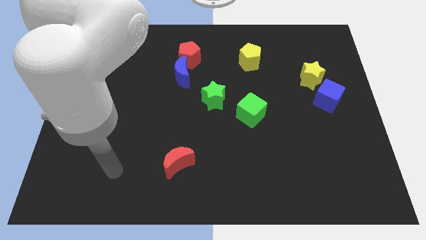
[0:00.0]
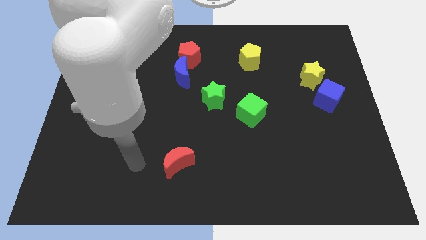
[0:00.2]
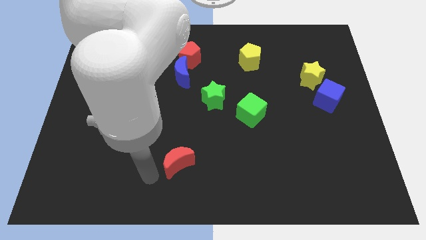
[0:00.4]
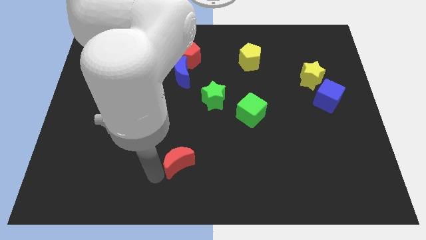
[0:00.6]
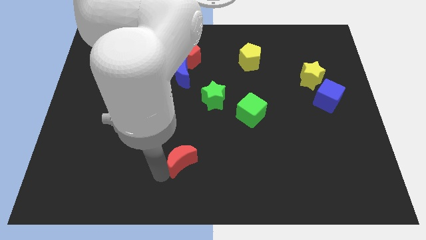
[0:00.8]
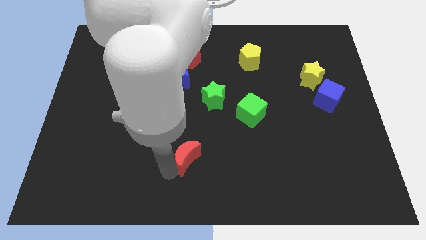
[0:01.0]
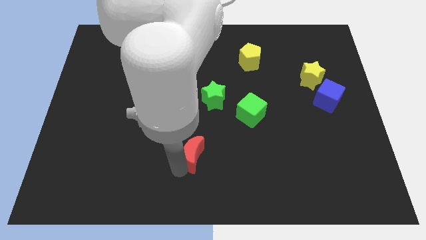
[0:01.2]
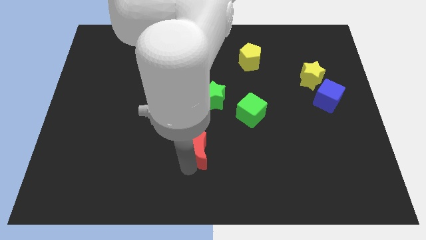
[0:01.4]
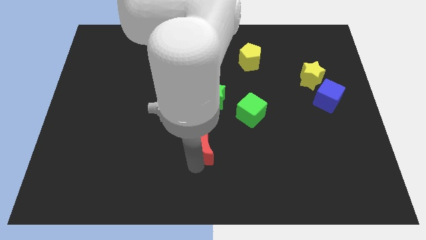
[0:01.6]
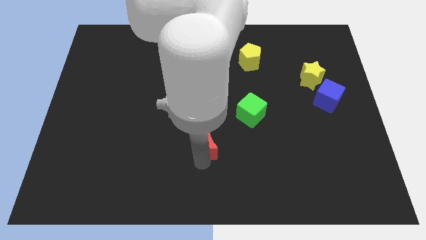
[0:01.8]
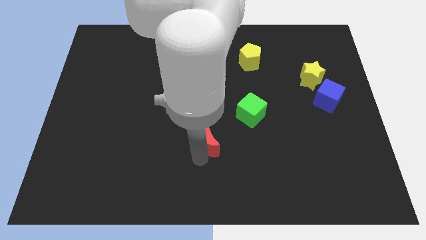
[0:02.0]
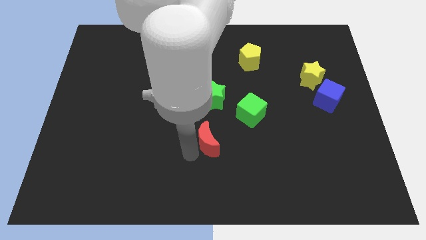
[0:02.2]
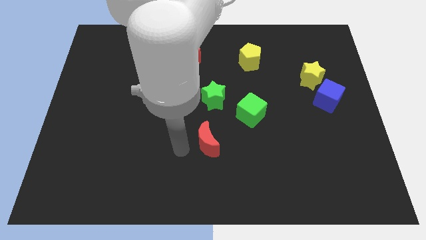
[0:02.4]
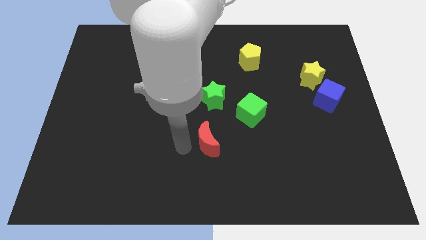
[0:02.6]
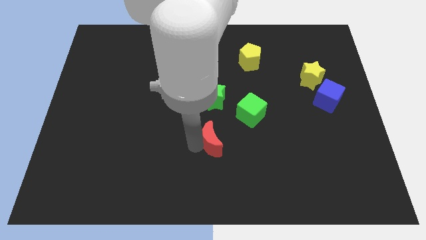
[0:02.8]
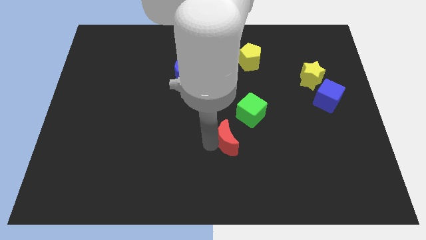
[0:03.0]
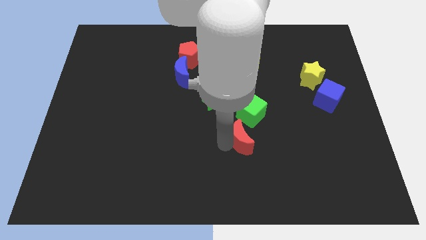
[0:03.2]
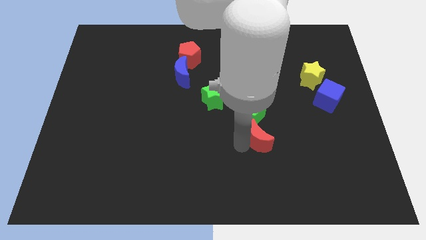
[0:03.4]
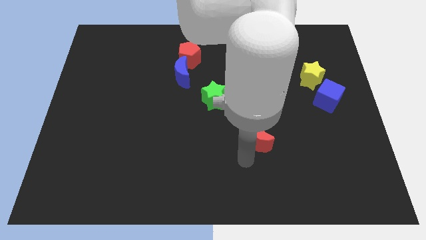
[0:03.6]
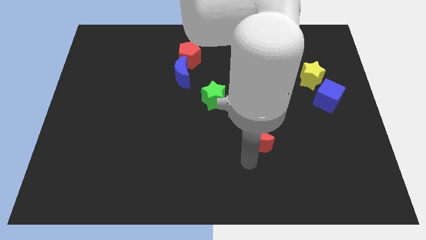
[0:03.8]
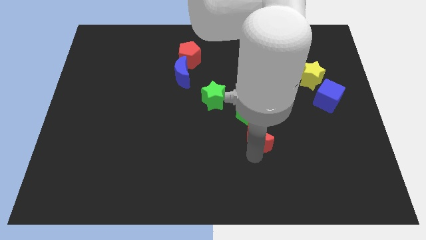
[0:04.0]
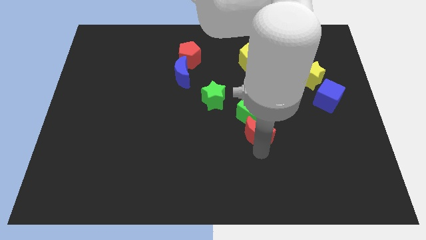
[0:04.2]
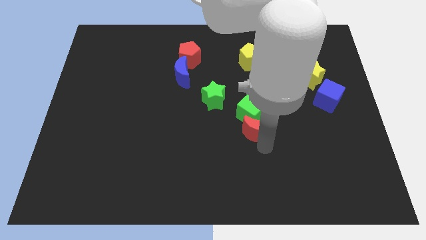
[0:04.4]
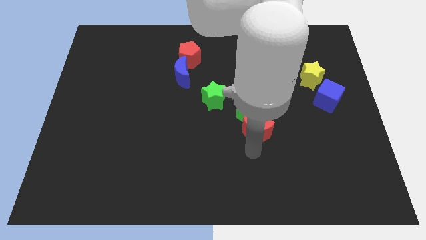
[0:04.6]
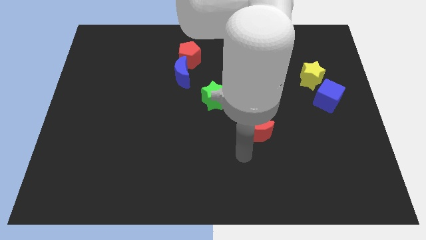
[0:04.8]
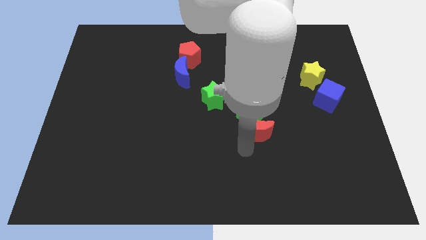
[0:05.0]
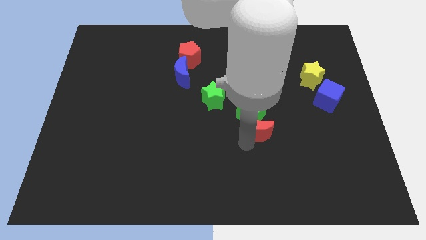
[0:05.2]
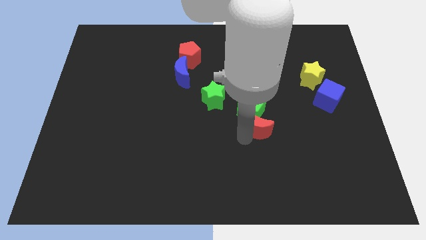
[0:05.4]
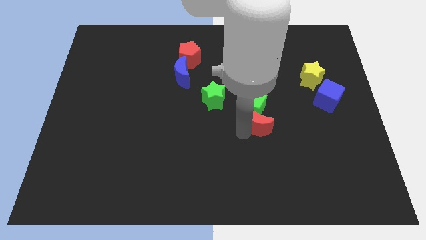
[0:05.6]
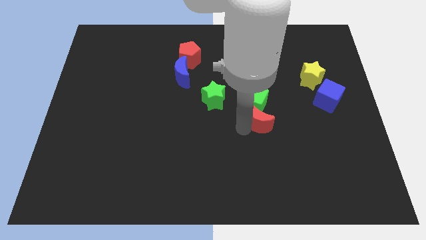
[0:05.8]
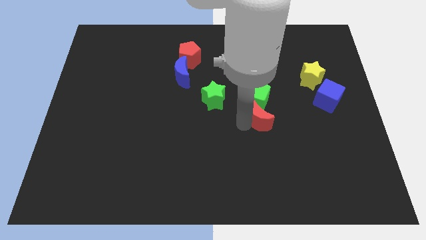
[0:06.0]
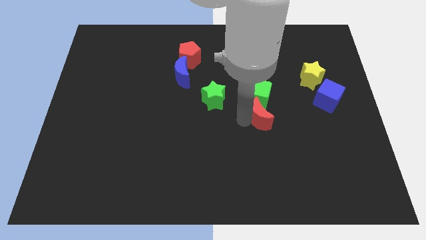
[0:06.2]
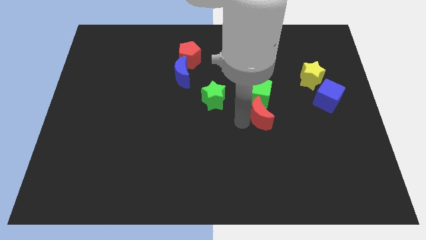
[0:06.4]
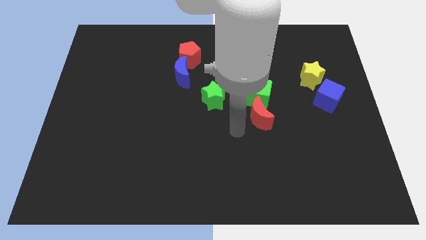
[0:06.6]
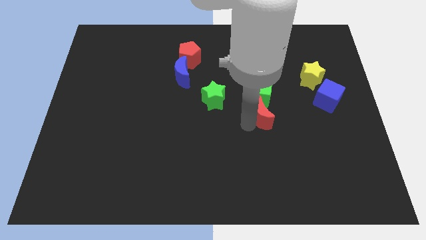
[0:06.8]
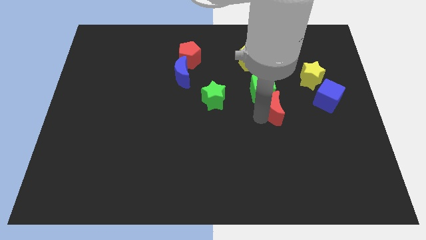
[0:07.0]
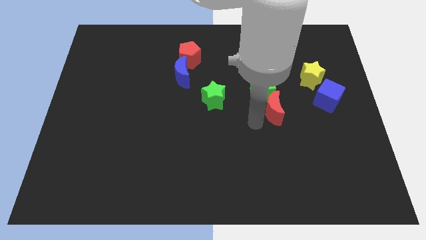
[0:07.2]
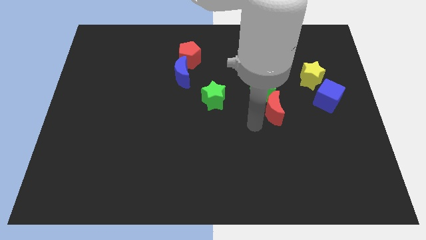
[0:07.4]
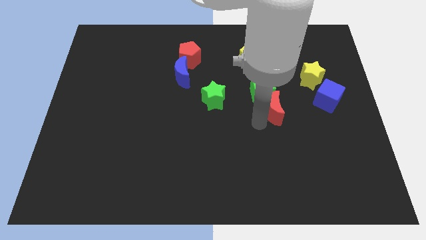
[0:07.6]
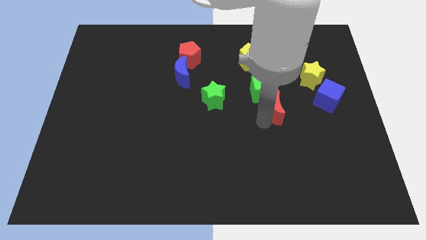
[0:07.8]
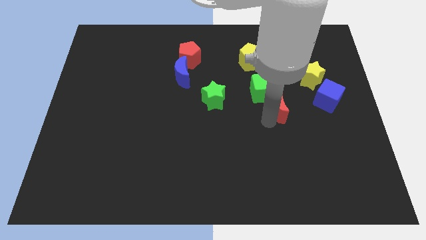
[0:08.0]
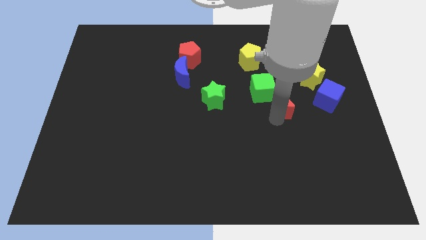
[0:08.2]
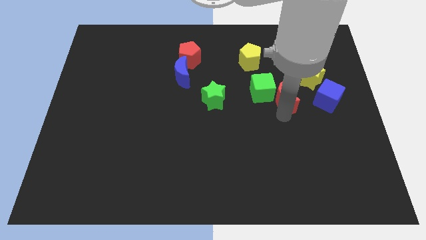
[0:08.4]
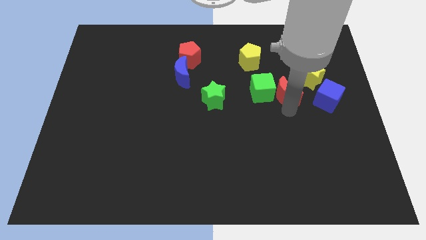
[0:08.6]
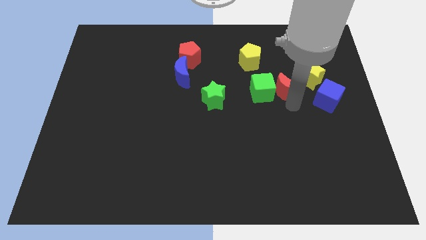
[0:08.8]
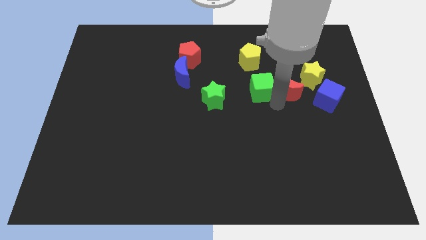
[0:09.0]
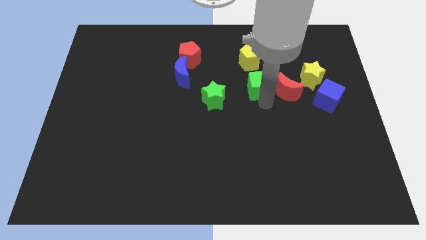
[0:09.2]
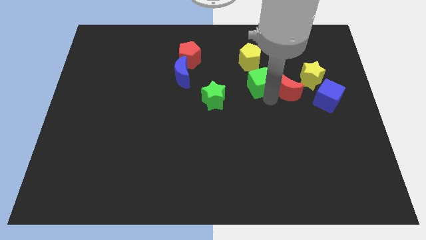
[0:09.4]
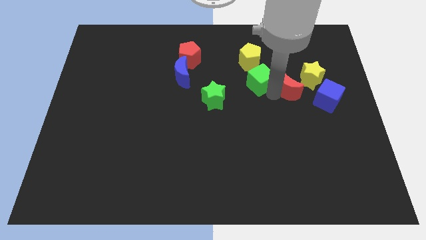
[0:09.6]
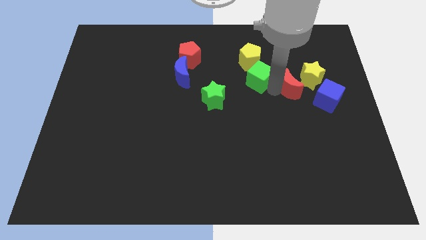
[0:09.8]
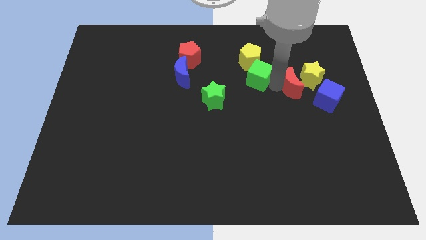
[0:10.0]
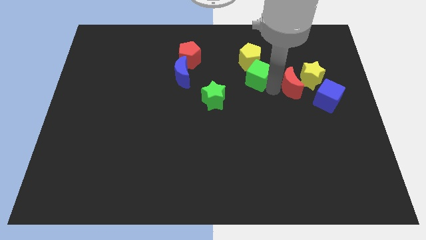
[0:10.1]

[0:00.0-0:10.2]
push the red moon close to the yellow star

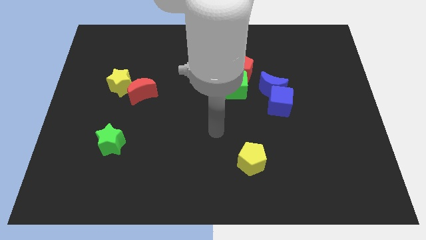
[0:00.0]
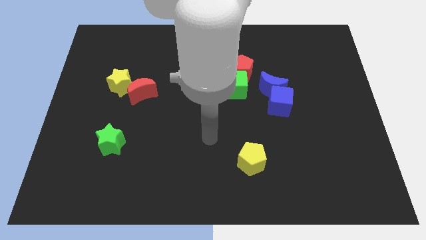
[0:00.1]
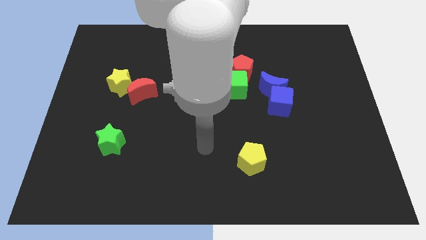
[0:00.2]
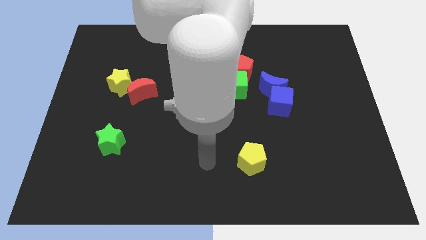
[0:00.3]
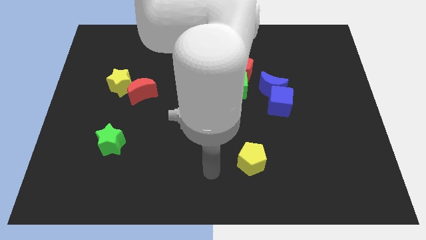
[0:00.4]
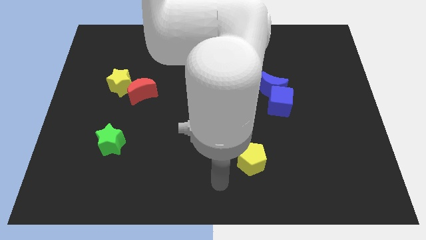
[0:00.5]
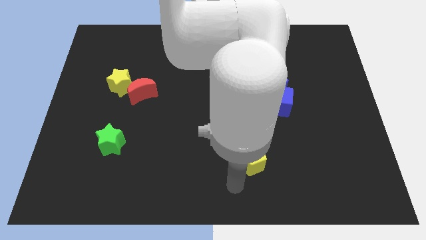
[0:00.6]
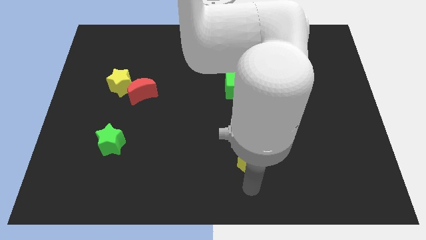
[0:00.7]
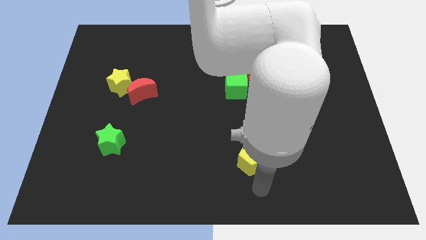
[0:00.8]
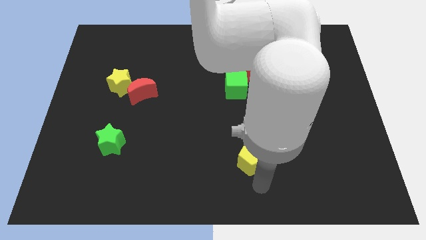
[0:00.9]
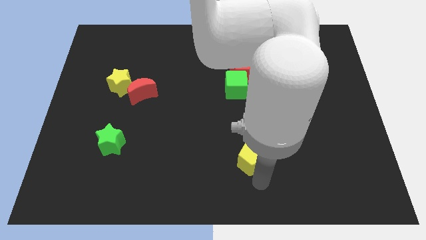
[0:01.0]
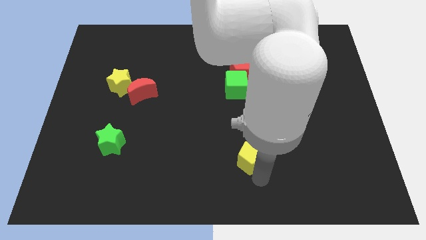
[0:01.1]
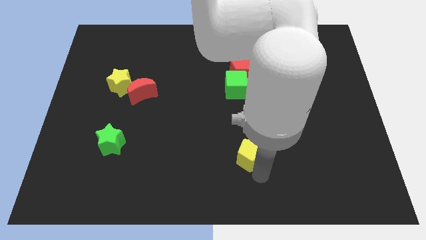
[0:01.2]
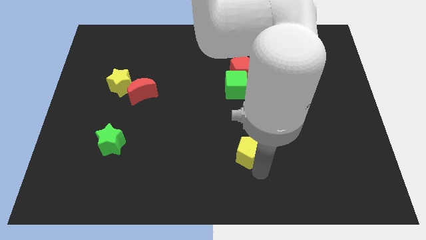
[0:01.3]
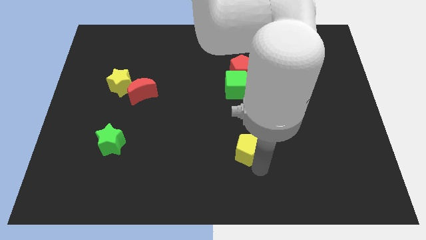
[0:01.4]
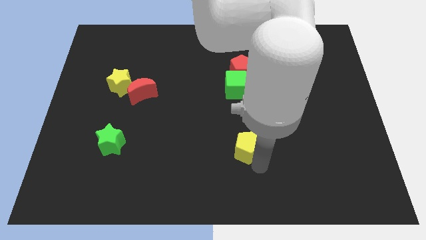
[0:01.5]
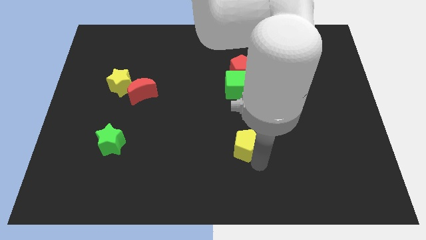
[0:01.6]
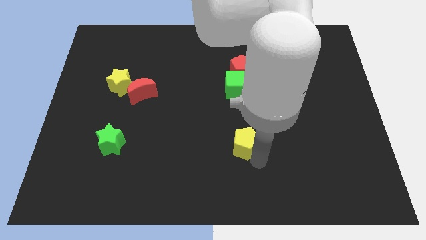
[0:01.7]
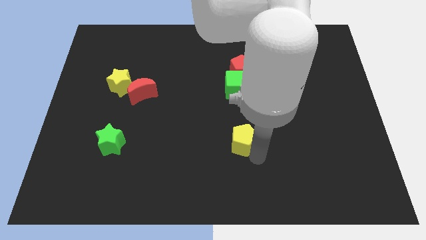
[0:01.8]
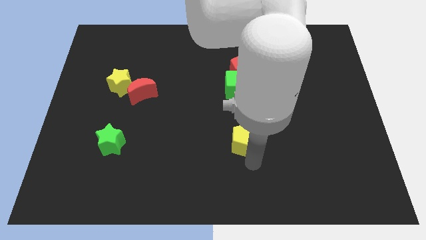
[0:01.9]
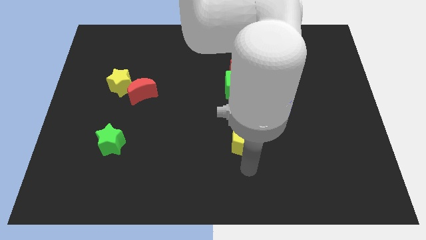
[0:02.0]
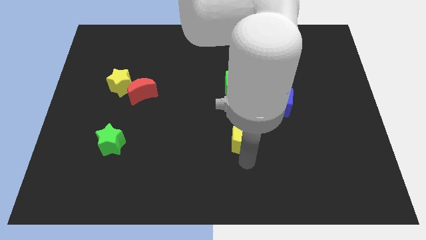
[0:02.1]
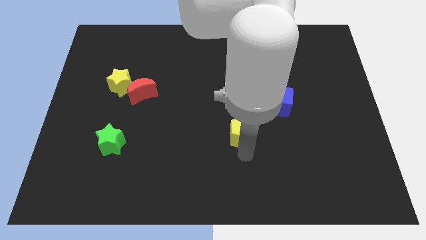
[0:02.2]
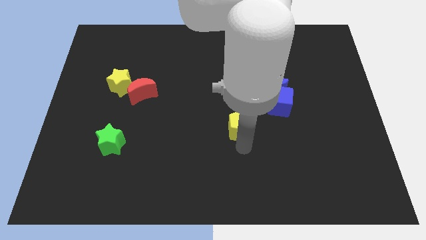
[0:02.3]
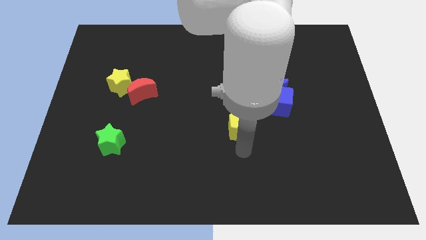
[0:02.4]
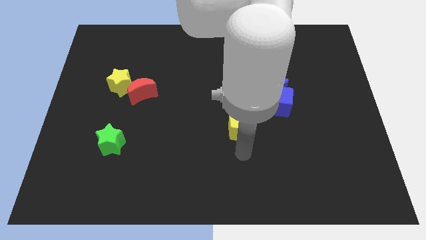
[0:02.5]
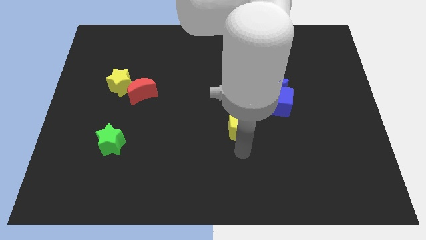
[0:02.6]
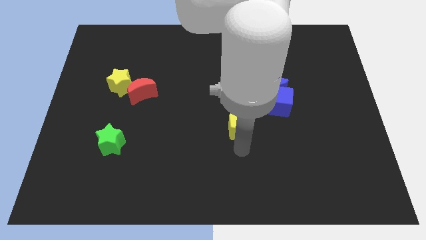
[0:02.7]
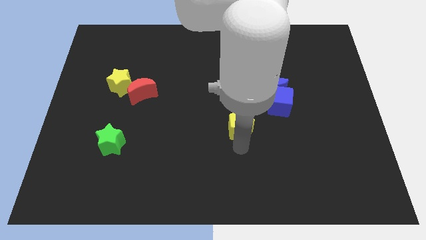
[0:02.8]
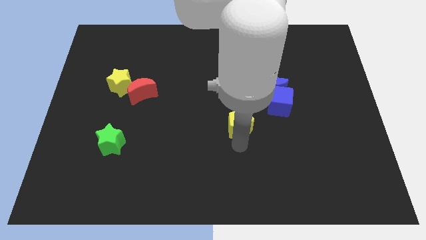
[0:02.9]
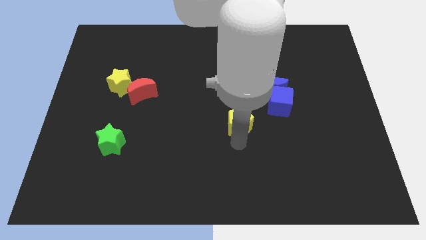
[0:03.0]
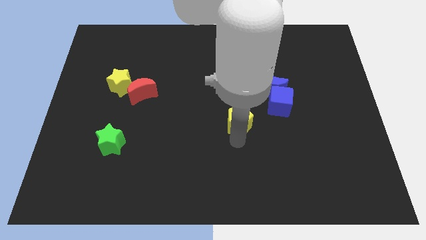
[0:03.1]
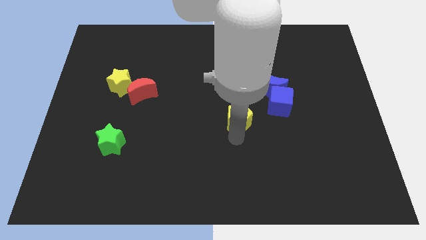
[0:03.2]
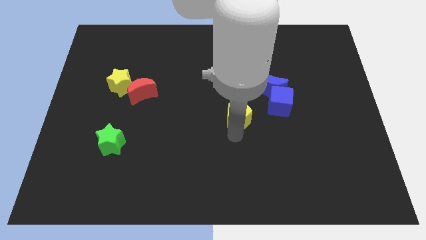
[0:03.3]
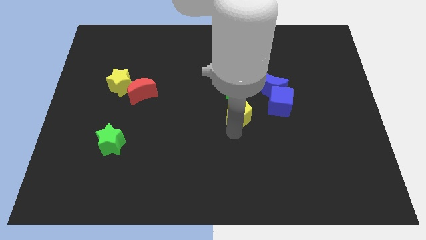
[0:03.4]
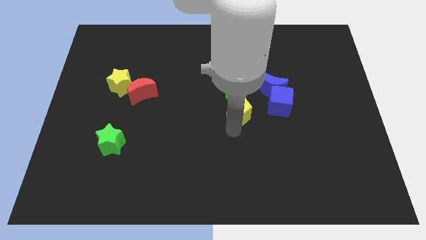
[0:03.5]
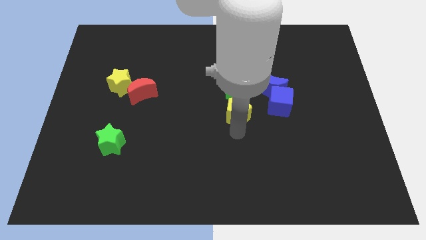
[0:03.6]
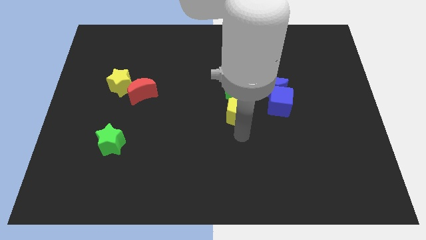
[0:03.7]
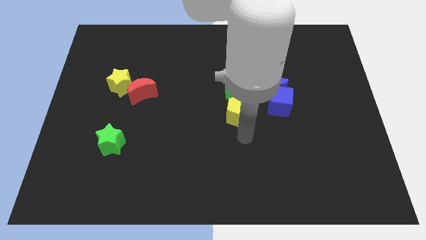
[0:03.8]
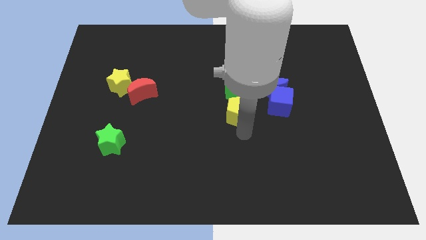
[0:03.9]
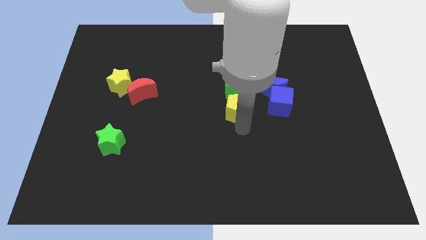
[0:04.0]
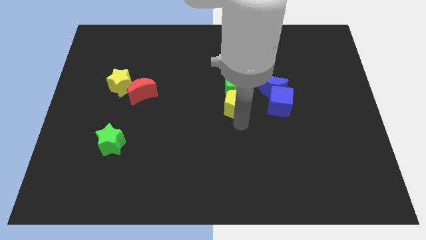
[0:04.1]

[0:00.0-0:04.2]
move the yellow pentagon next to the green cube
